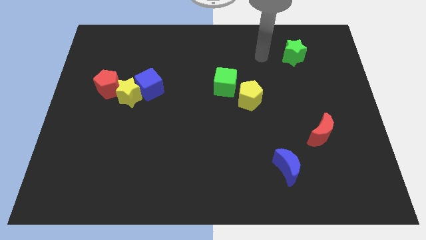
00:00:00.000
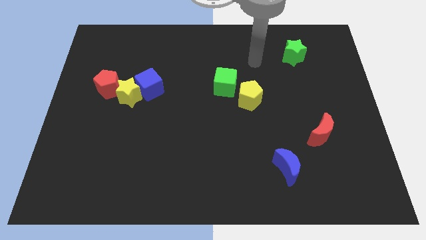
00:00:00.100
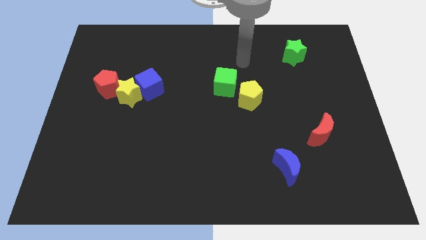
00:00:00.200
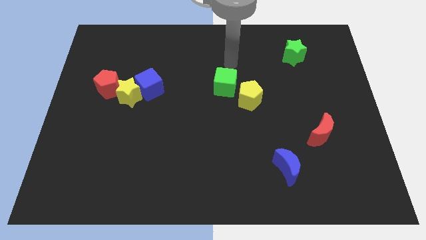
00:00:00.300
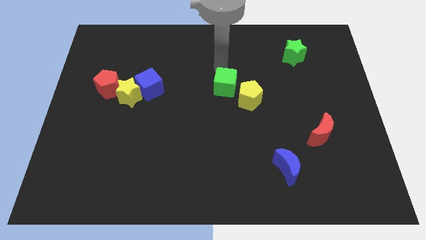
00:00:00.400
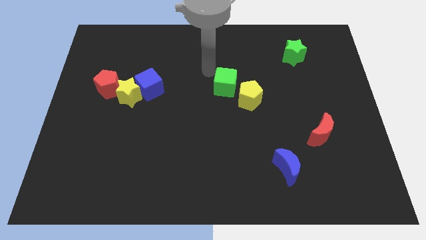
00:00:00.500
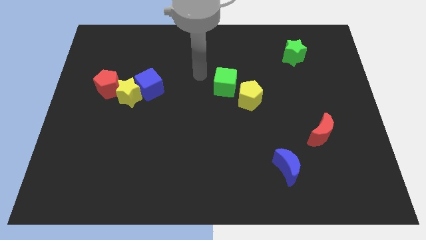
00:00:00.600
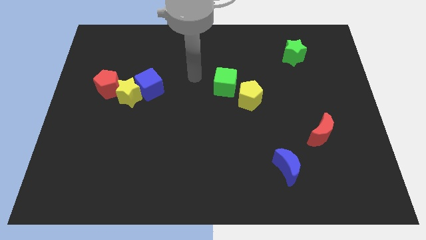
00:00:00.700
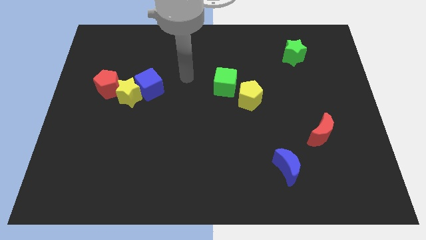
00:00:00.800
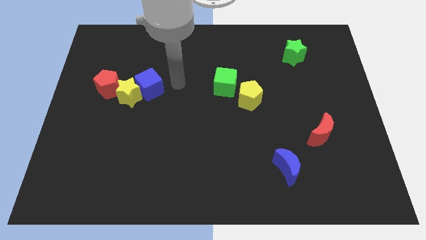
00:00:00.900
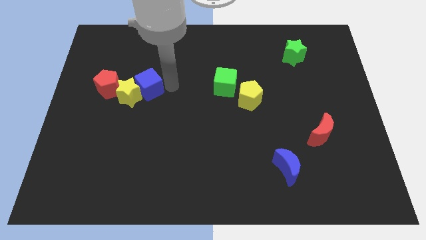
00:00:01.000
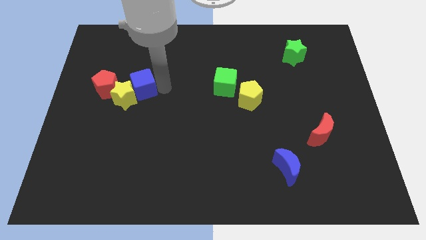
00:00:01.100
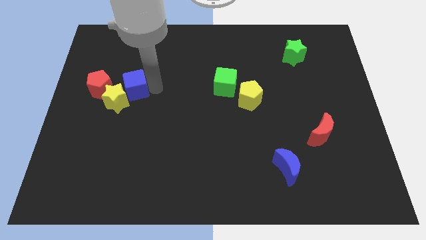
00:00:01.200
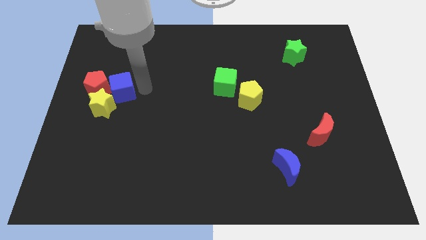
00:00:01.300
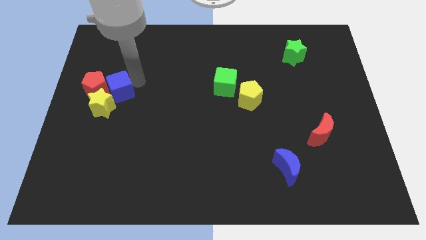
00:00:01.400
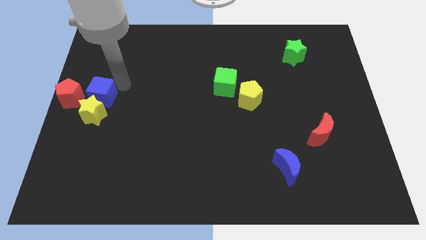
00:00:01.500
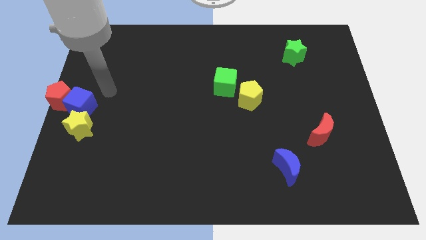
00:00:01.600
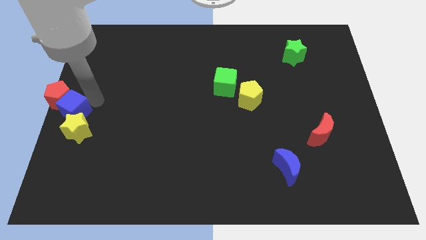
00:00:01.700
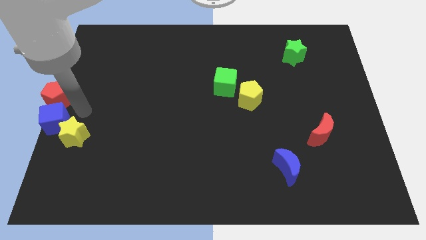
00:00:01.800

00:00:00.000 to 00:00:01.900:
slightly slide the yellow star down

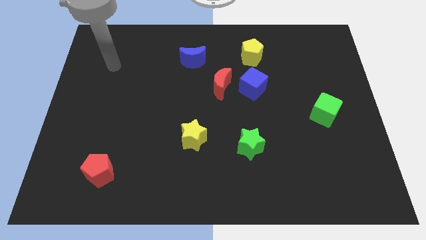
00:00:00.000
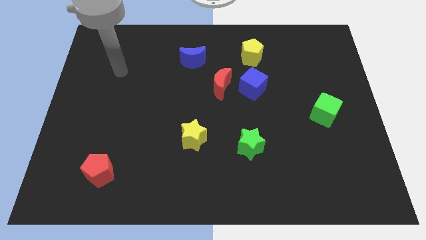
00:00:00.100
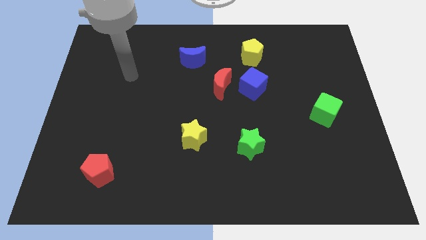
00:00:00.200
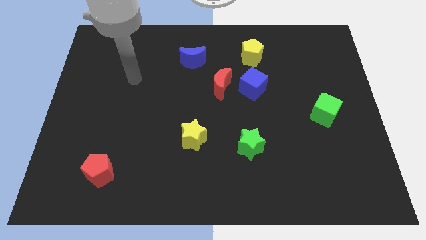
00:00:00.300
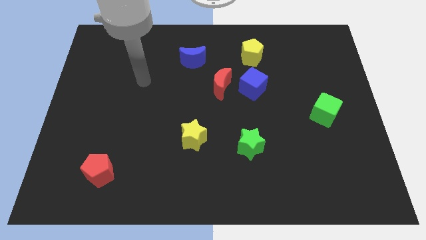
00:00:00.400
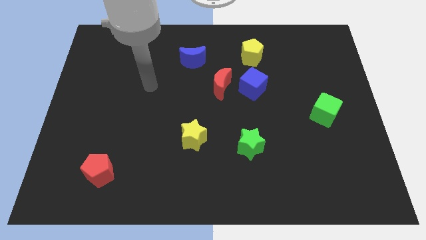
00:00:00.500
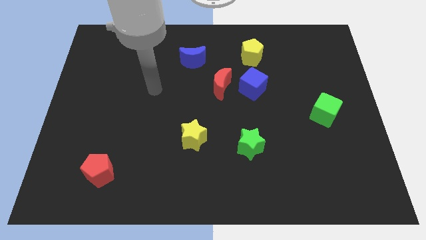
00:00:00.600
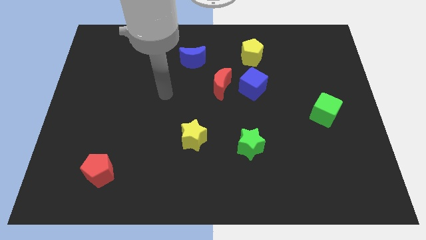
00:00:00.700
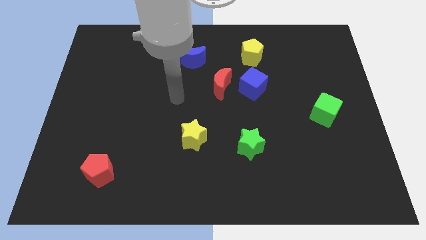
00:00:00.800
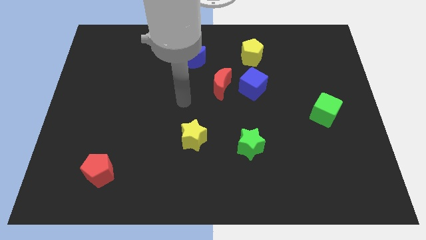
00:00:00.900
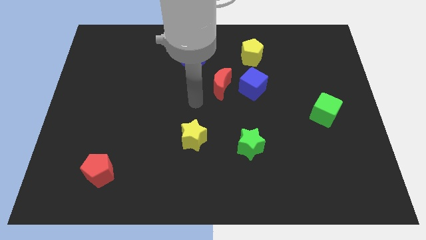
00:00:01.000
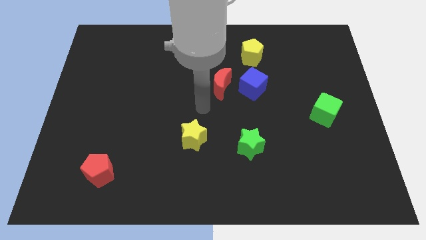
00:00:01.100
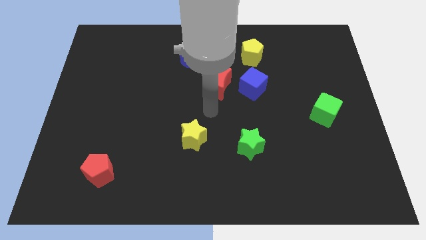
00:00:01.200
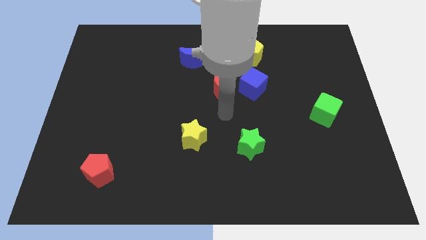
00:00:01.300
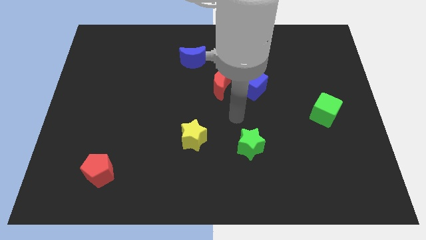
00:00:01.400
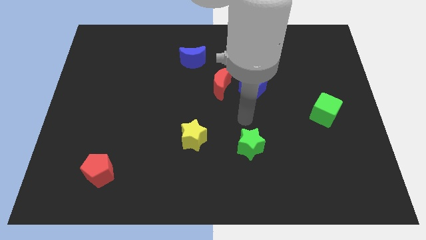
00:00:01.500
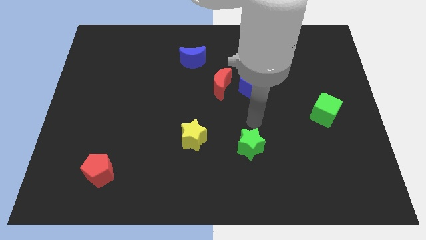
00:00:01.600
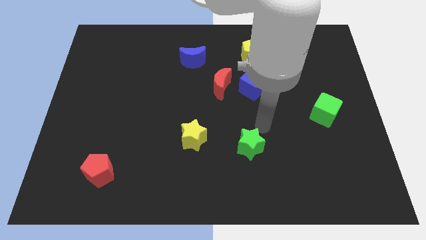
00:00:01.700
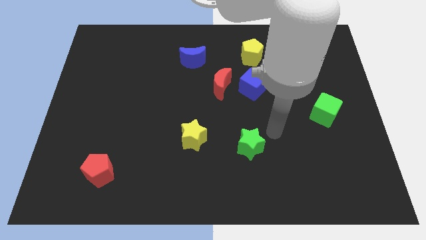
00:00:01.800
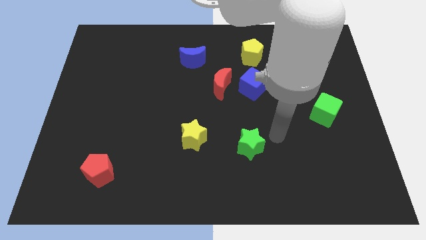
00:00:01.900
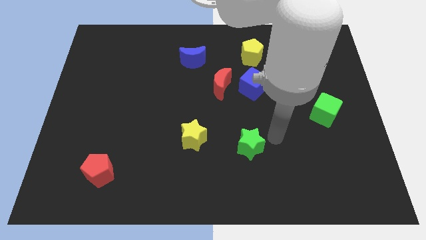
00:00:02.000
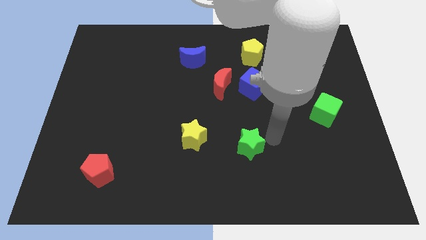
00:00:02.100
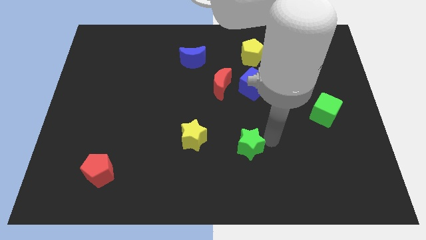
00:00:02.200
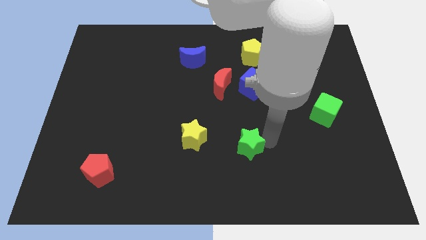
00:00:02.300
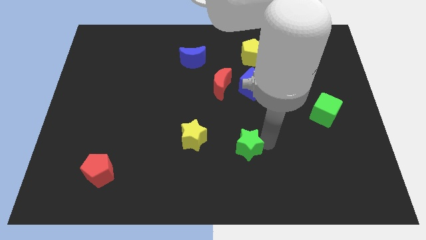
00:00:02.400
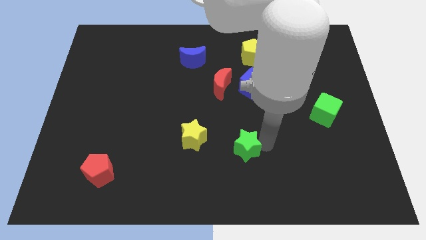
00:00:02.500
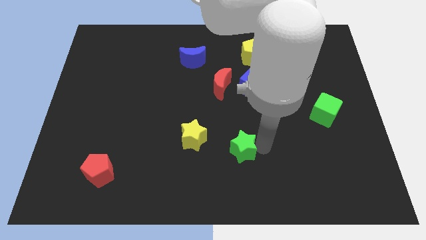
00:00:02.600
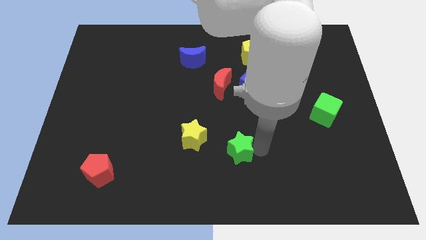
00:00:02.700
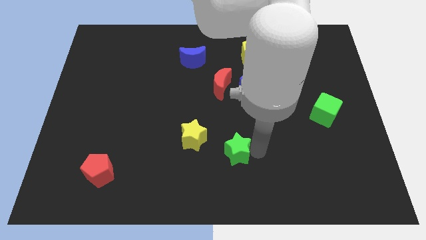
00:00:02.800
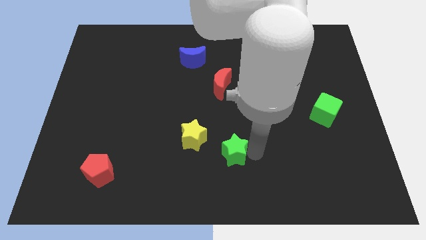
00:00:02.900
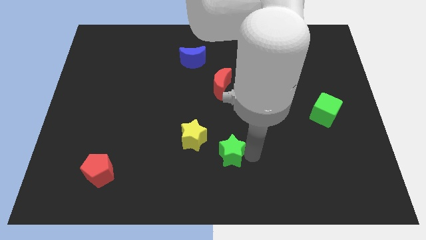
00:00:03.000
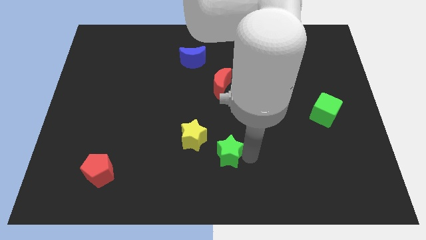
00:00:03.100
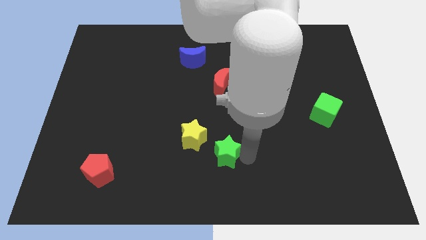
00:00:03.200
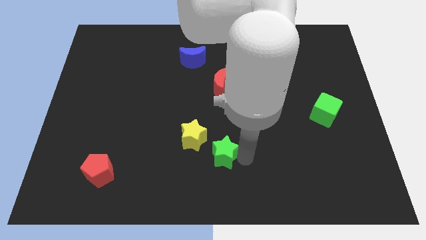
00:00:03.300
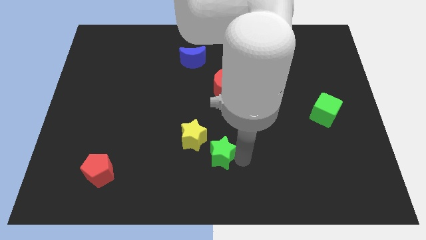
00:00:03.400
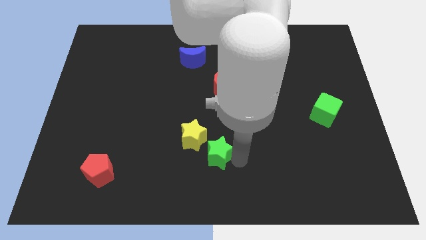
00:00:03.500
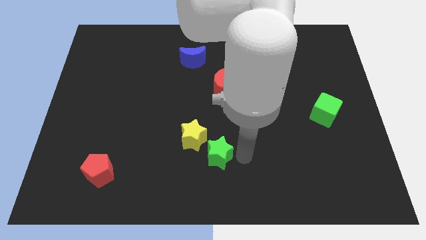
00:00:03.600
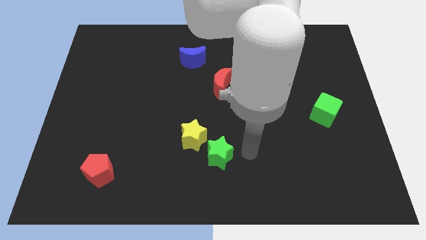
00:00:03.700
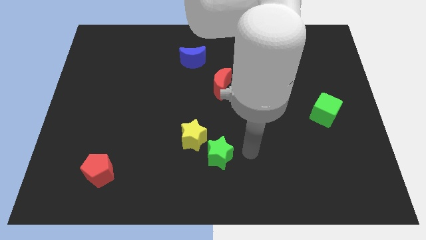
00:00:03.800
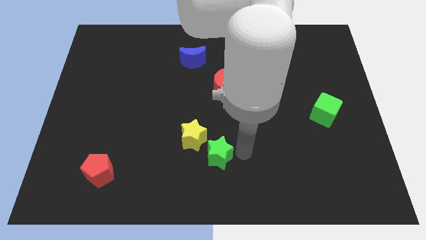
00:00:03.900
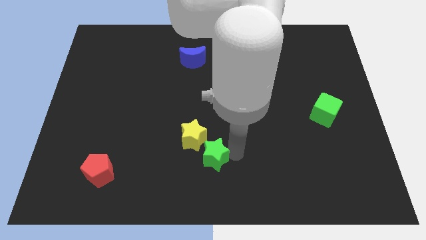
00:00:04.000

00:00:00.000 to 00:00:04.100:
slightly push the green star to the left

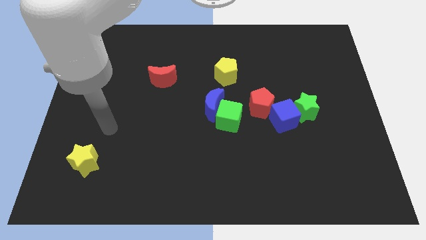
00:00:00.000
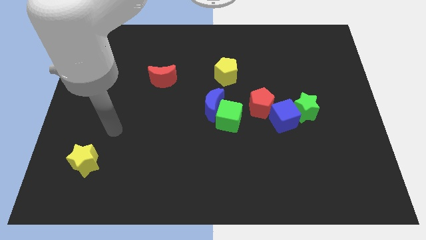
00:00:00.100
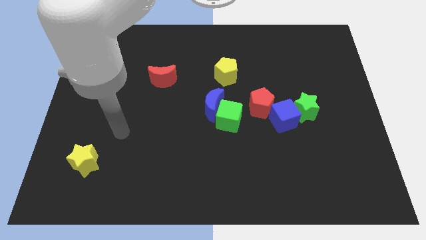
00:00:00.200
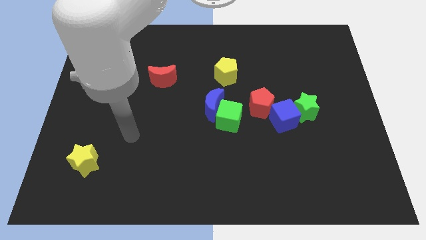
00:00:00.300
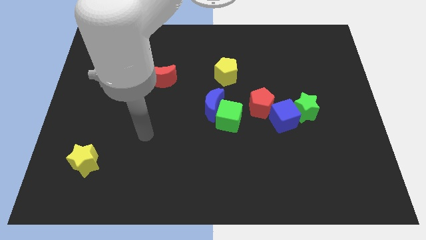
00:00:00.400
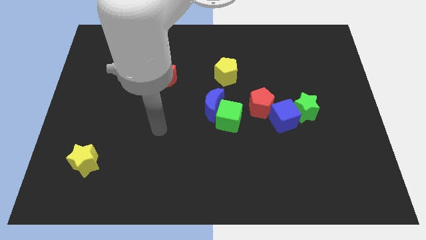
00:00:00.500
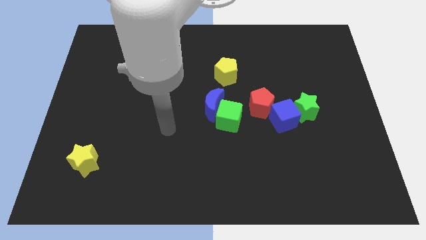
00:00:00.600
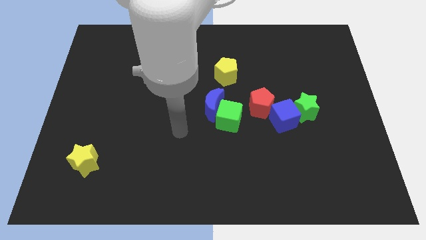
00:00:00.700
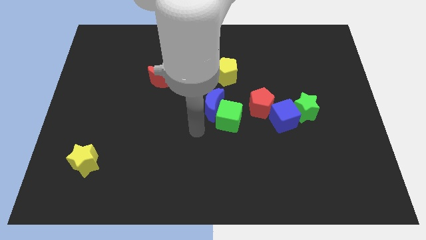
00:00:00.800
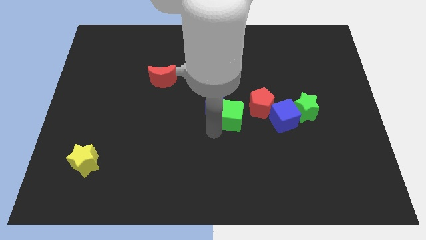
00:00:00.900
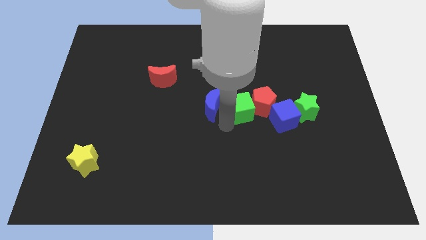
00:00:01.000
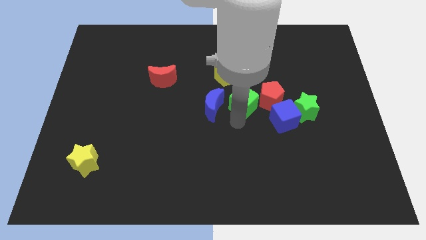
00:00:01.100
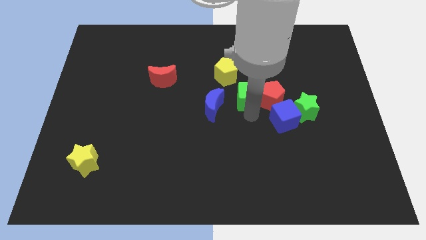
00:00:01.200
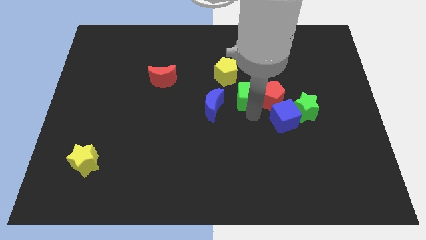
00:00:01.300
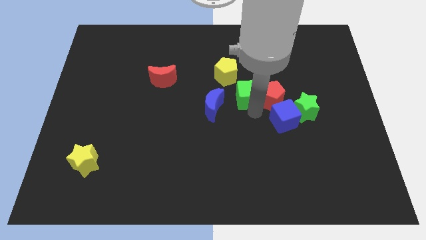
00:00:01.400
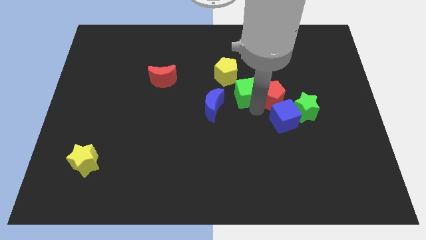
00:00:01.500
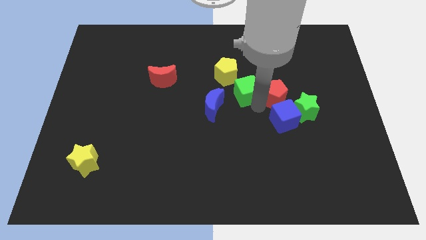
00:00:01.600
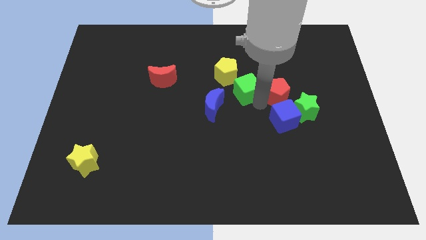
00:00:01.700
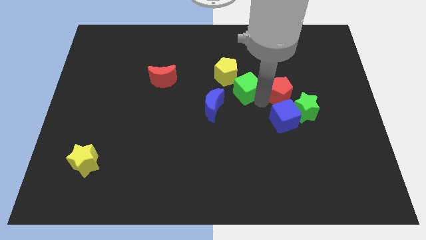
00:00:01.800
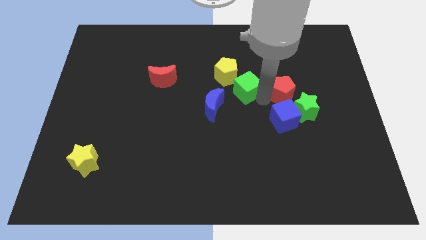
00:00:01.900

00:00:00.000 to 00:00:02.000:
slightly push the red pentagon diagonally up and to the right
